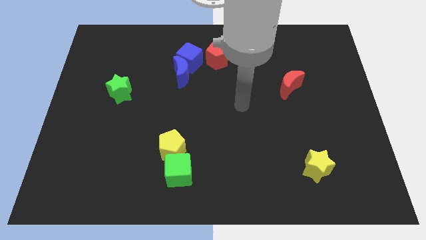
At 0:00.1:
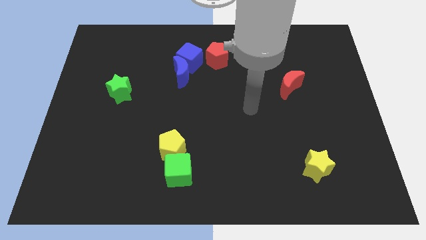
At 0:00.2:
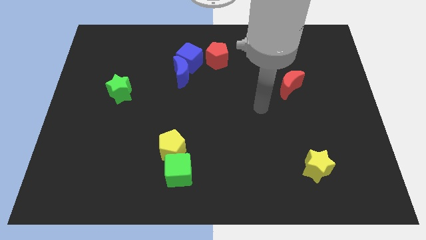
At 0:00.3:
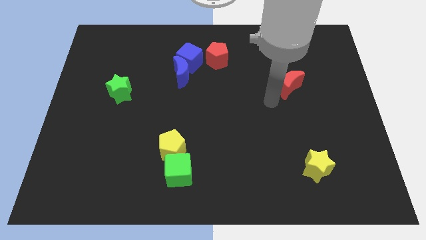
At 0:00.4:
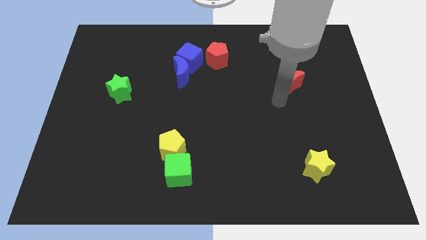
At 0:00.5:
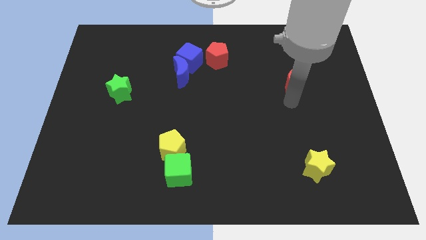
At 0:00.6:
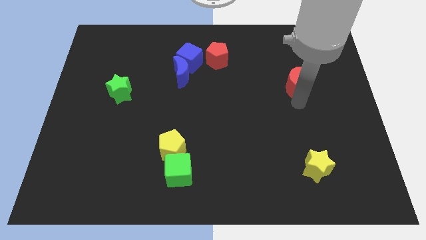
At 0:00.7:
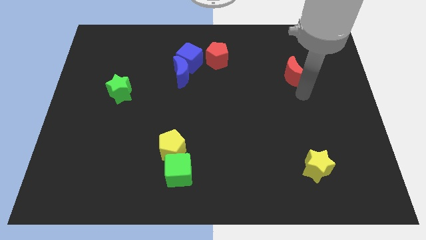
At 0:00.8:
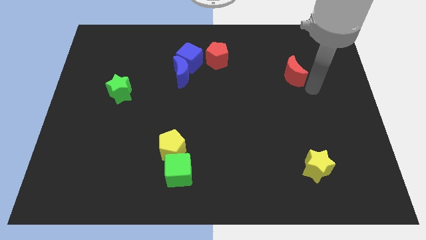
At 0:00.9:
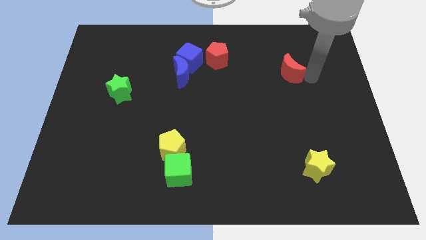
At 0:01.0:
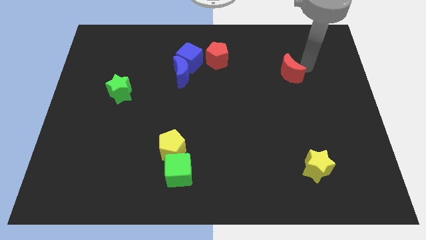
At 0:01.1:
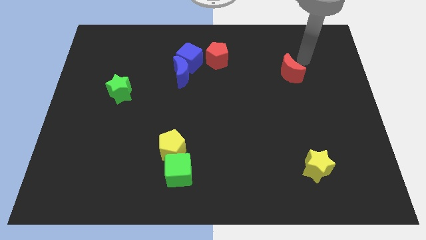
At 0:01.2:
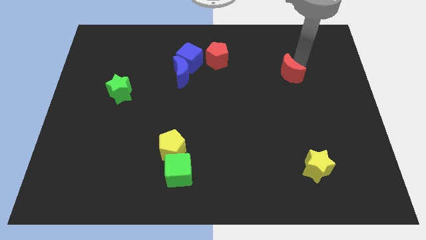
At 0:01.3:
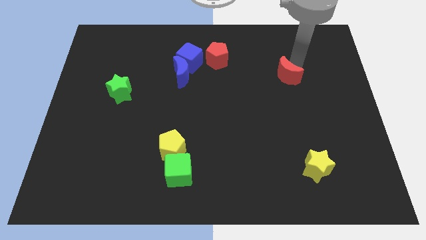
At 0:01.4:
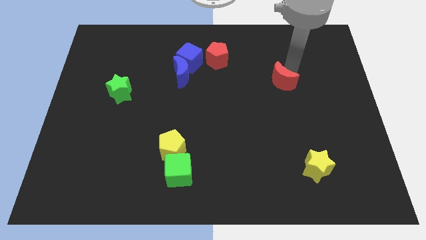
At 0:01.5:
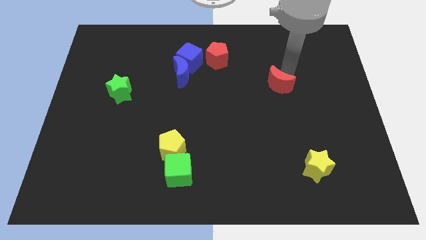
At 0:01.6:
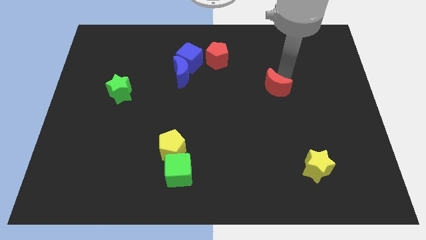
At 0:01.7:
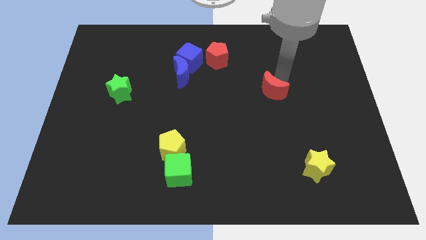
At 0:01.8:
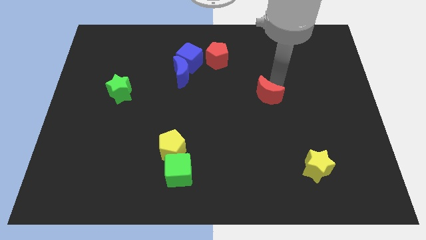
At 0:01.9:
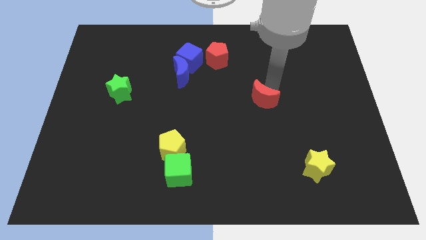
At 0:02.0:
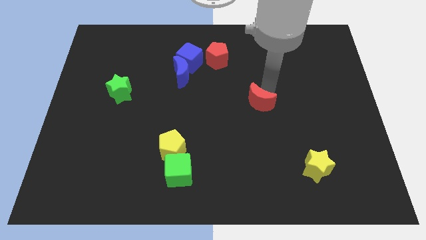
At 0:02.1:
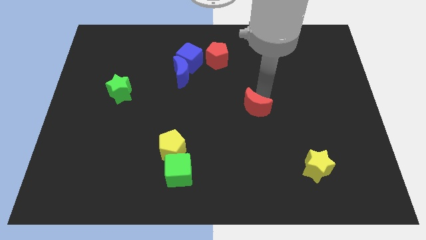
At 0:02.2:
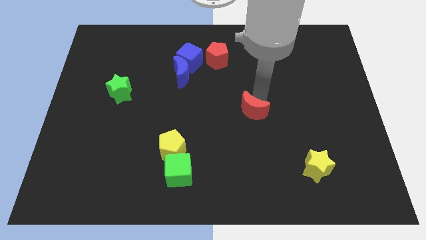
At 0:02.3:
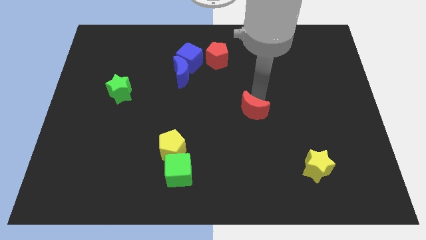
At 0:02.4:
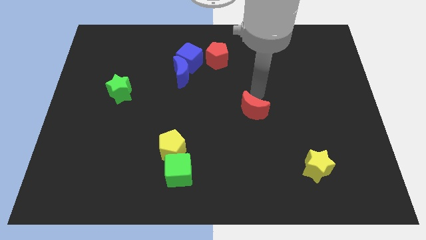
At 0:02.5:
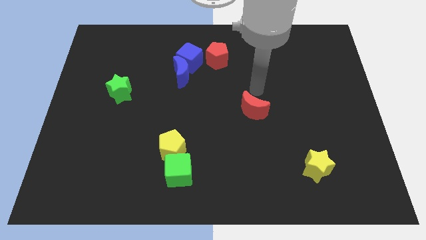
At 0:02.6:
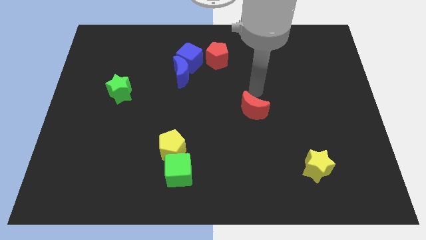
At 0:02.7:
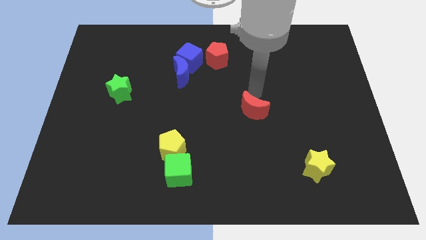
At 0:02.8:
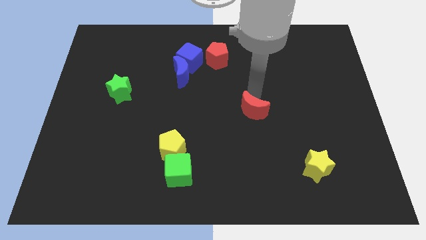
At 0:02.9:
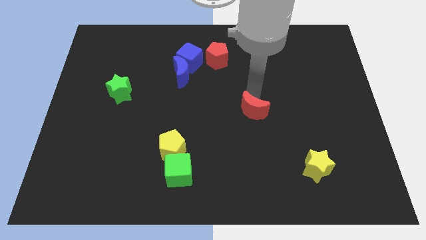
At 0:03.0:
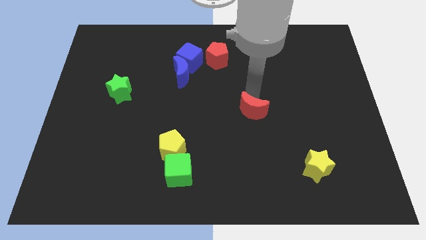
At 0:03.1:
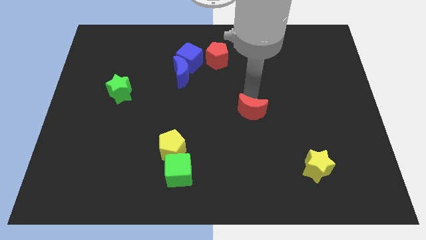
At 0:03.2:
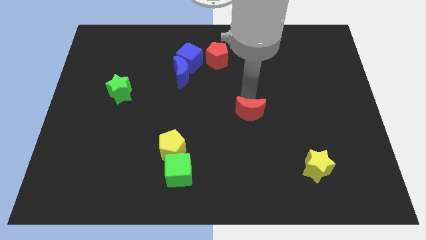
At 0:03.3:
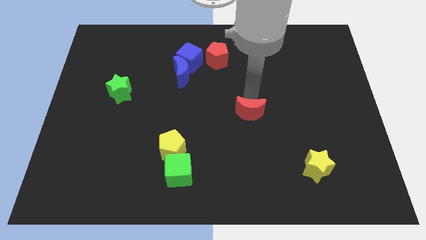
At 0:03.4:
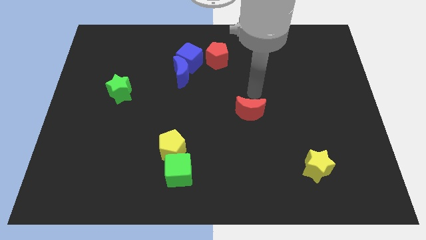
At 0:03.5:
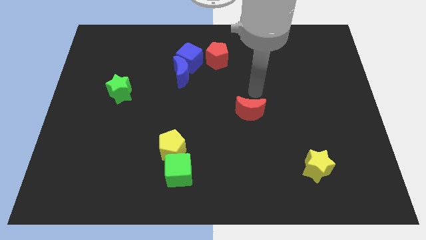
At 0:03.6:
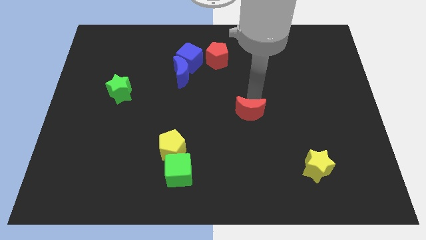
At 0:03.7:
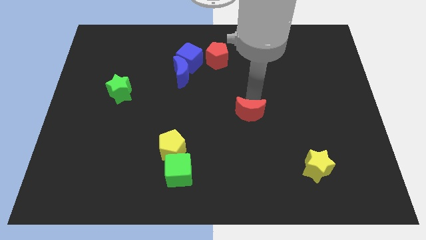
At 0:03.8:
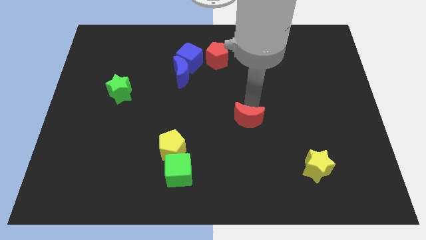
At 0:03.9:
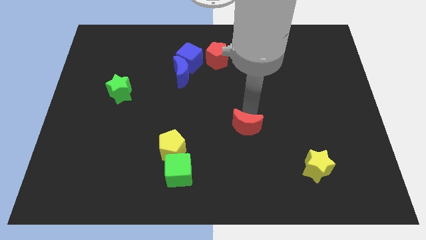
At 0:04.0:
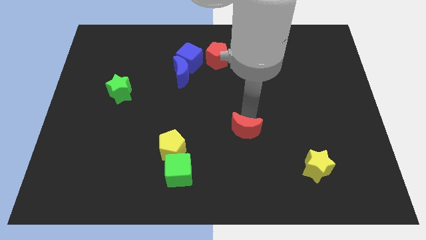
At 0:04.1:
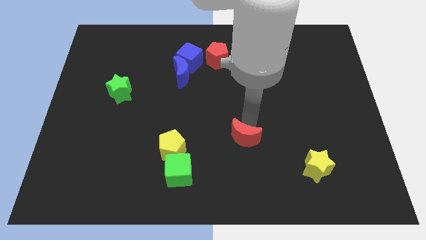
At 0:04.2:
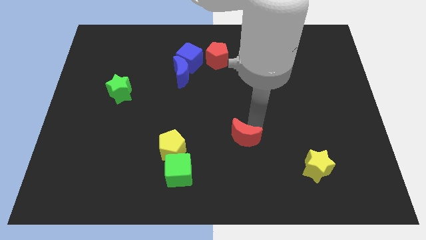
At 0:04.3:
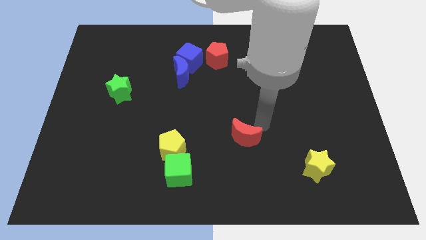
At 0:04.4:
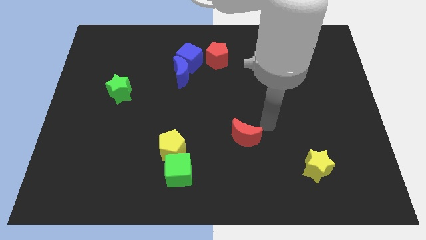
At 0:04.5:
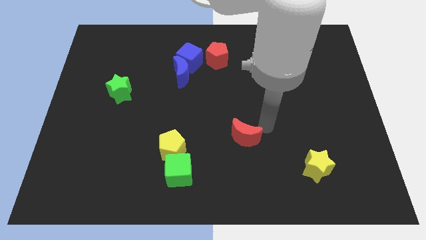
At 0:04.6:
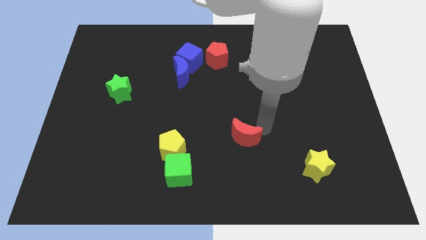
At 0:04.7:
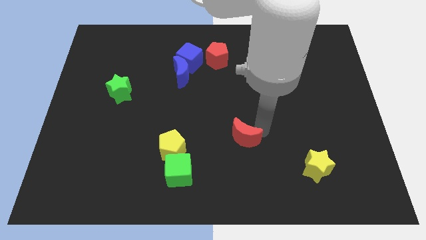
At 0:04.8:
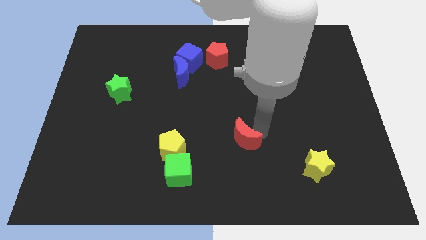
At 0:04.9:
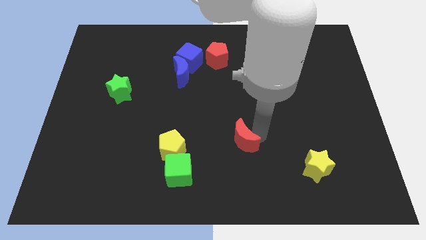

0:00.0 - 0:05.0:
push the red moon to the right side of the yellow pentagon

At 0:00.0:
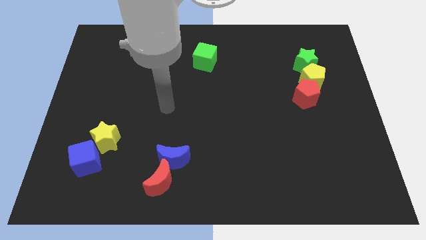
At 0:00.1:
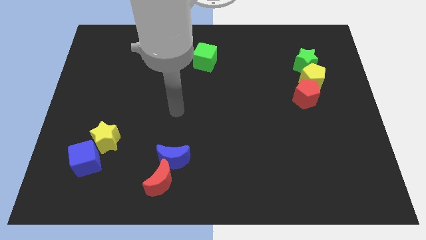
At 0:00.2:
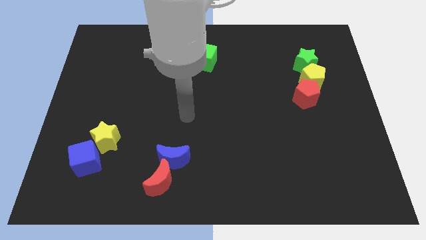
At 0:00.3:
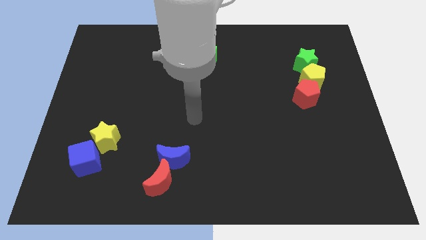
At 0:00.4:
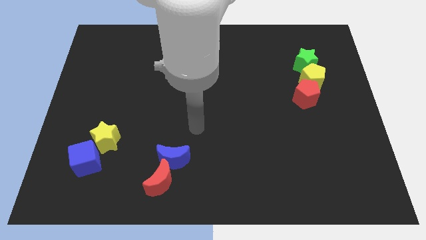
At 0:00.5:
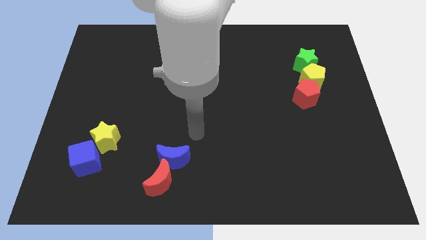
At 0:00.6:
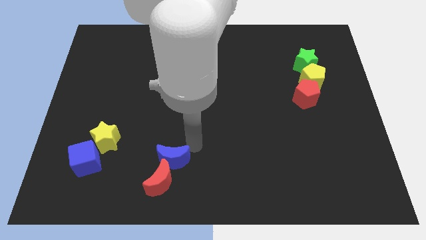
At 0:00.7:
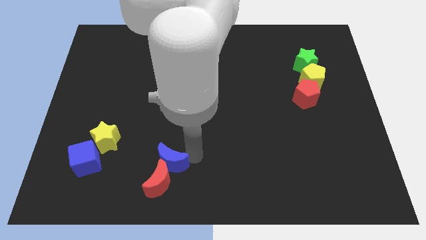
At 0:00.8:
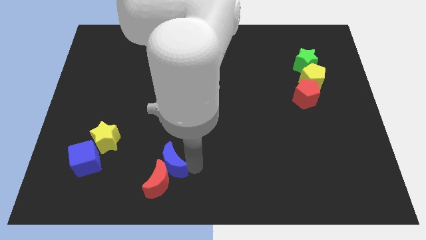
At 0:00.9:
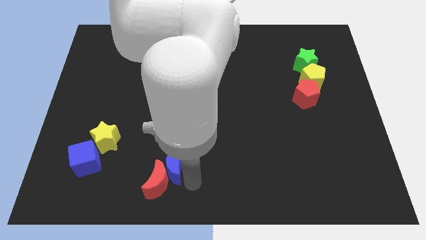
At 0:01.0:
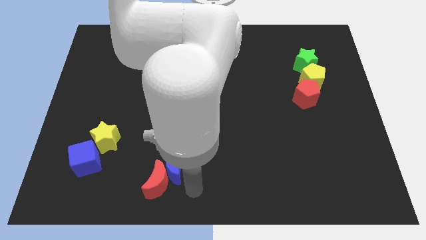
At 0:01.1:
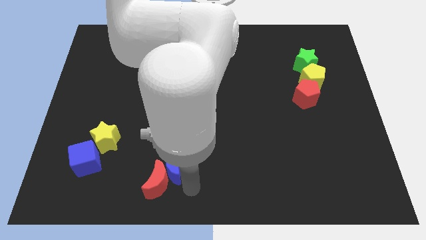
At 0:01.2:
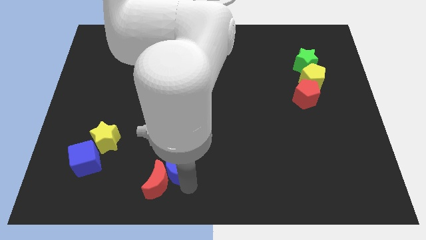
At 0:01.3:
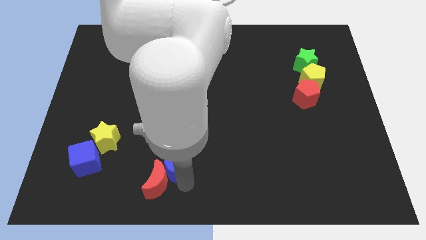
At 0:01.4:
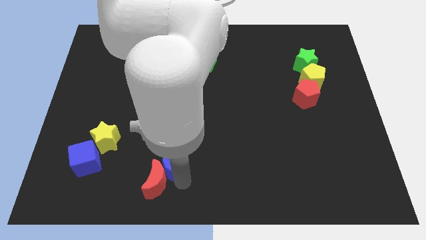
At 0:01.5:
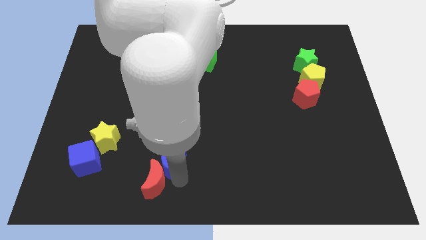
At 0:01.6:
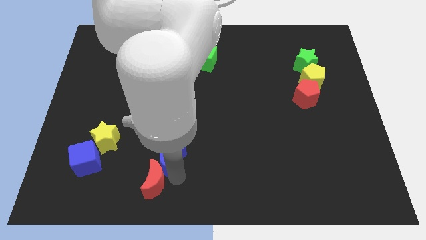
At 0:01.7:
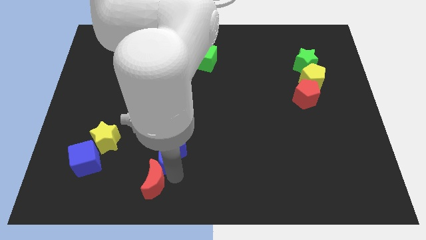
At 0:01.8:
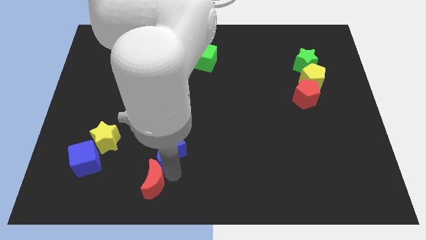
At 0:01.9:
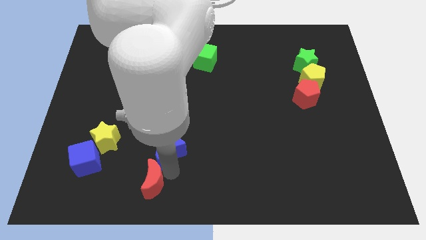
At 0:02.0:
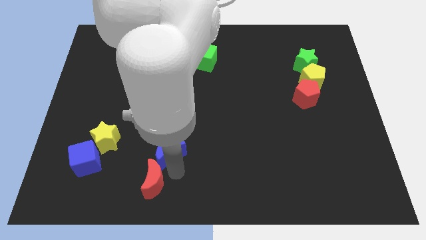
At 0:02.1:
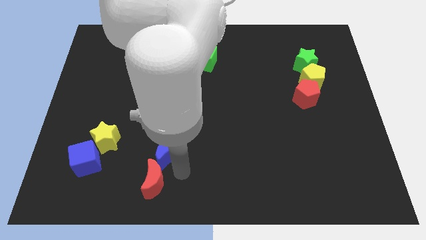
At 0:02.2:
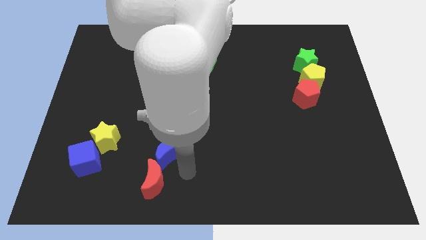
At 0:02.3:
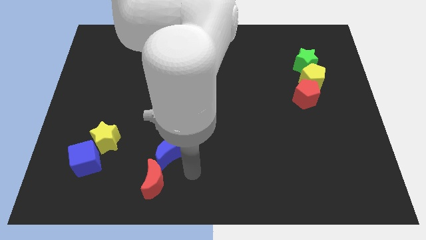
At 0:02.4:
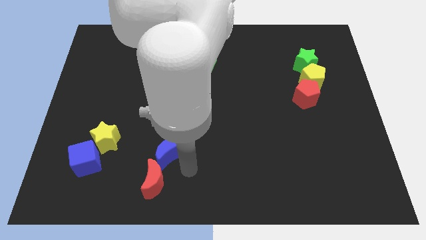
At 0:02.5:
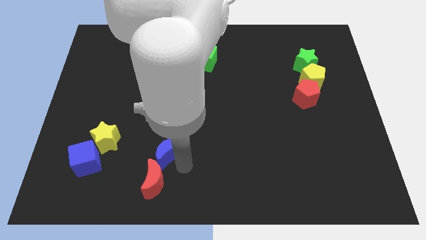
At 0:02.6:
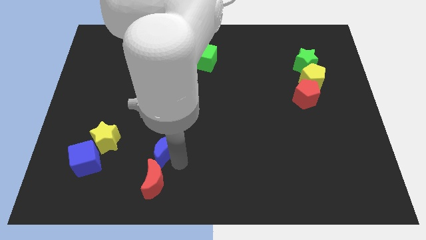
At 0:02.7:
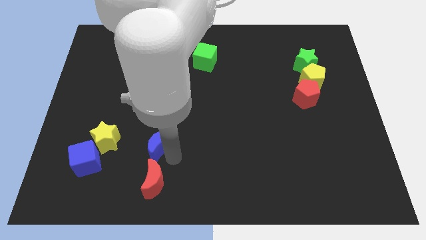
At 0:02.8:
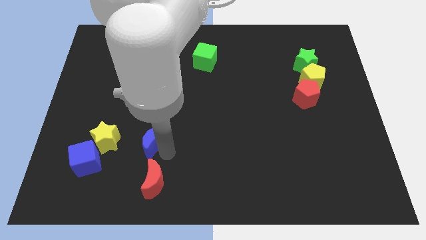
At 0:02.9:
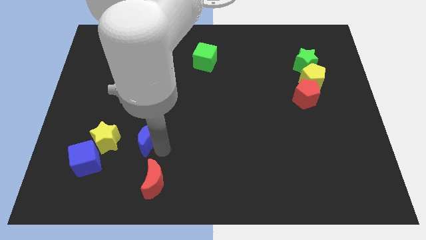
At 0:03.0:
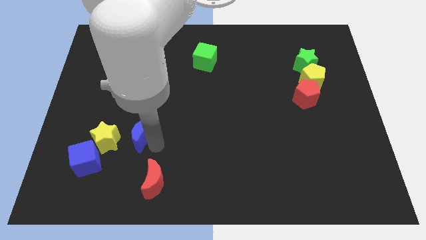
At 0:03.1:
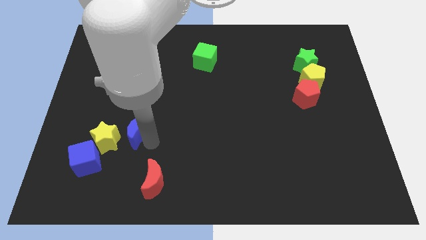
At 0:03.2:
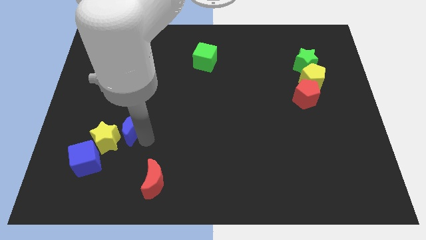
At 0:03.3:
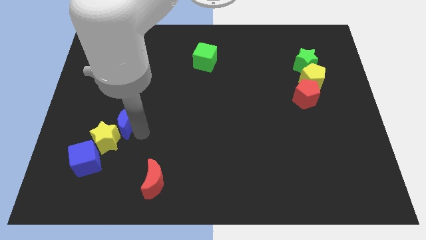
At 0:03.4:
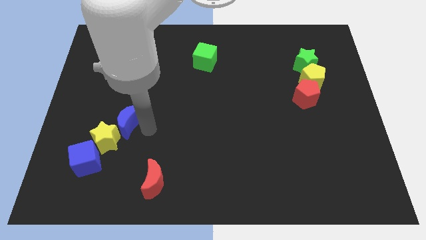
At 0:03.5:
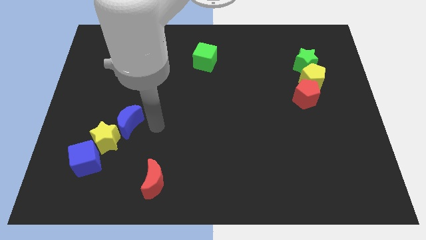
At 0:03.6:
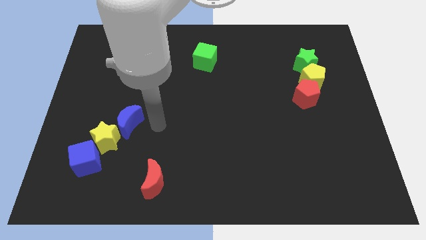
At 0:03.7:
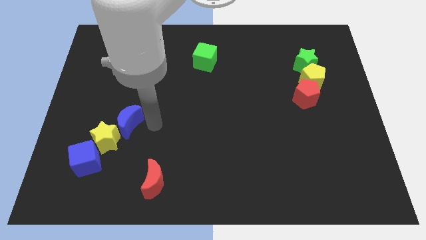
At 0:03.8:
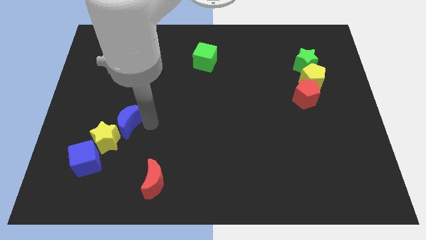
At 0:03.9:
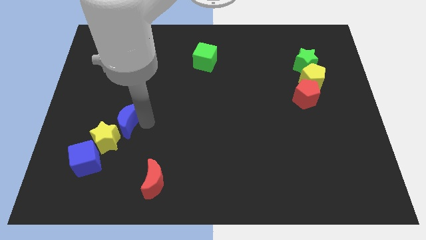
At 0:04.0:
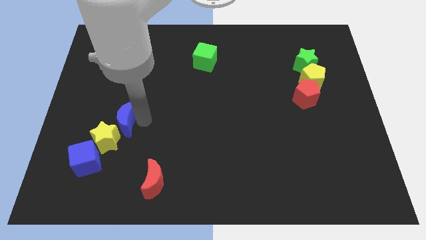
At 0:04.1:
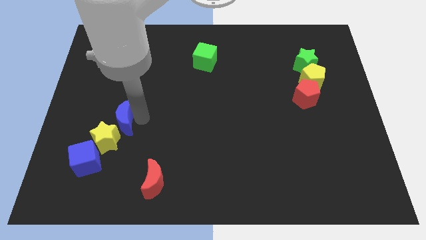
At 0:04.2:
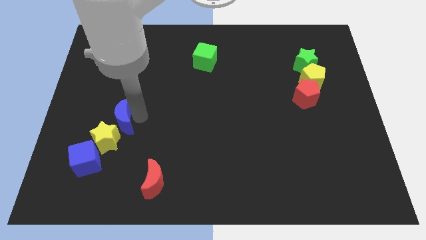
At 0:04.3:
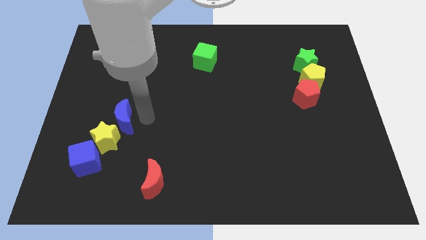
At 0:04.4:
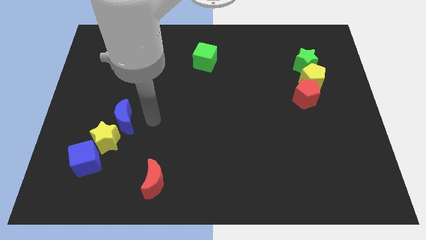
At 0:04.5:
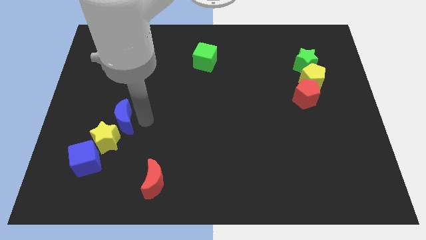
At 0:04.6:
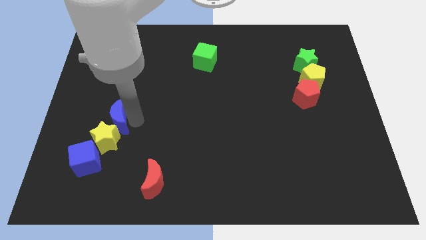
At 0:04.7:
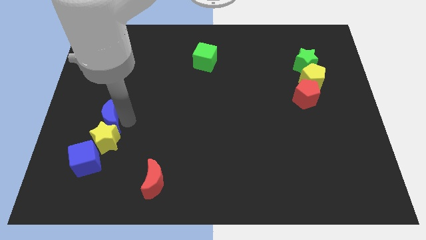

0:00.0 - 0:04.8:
move the blue moon to the top left of the yellow star
